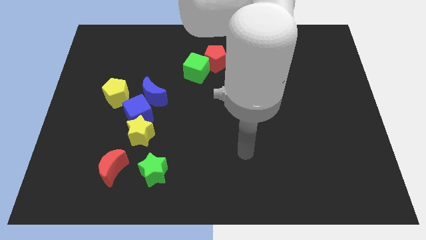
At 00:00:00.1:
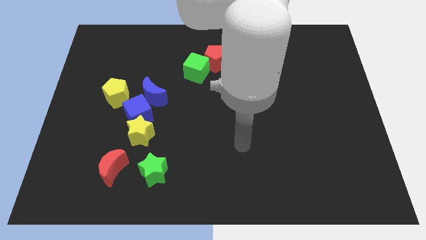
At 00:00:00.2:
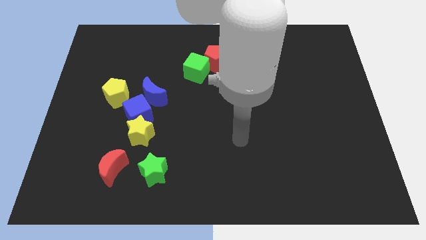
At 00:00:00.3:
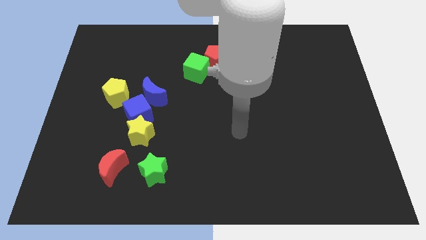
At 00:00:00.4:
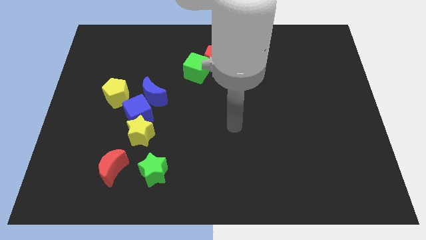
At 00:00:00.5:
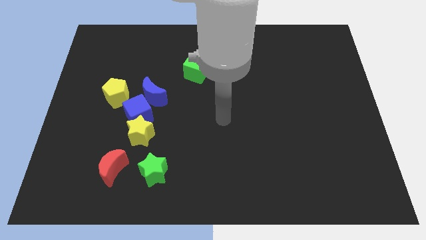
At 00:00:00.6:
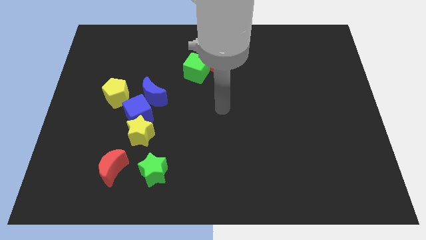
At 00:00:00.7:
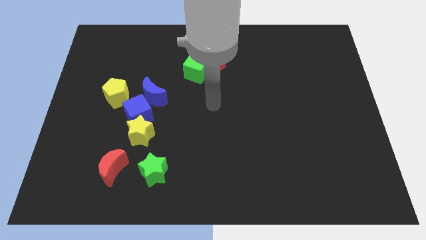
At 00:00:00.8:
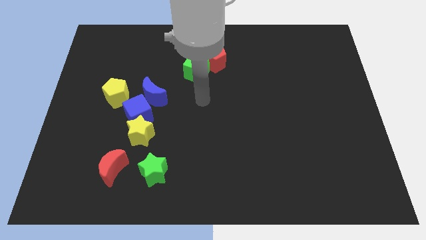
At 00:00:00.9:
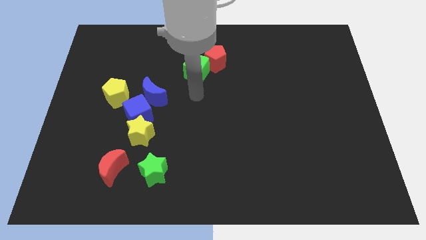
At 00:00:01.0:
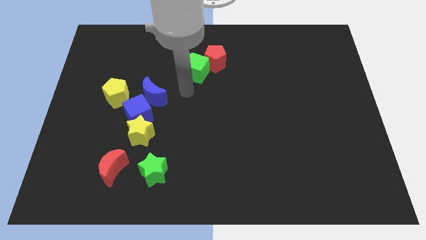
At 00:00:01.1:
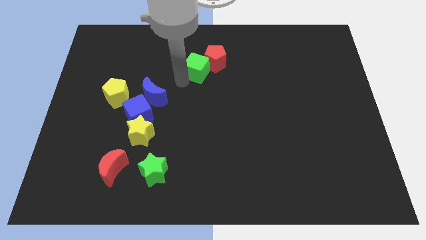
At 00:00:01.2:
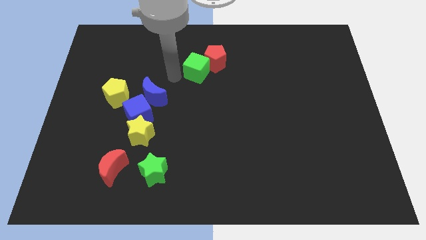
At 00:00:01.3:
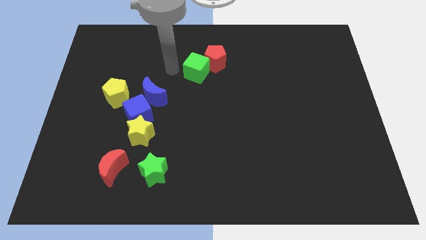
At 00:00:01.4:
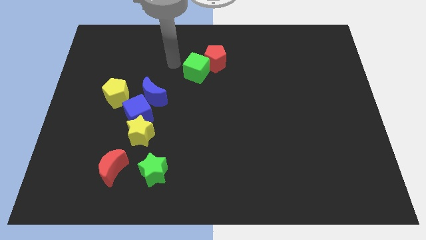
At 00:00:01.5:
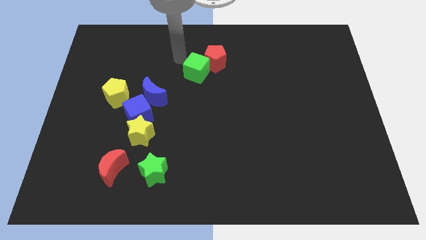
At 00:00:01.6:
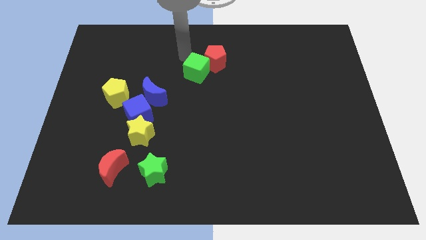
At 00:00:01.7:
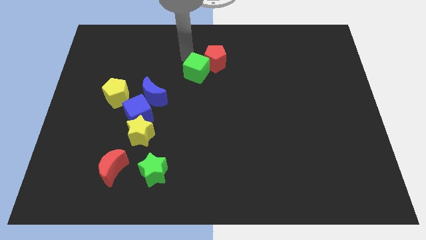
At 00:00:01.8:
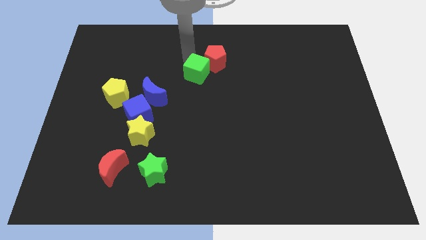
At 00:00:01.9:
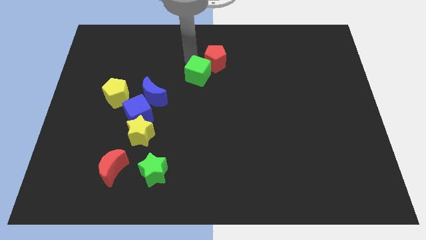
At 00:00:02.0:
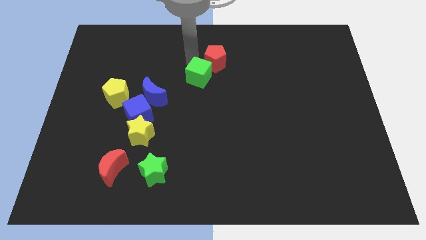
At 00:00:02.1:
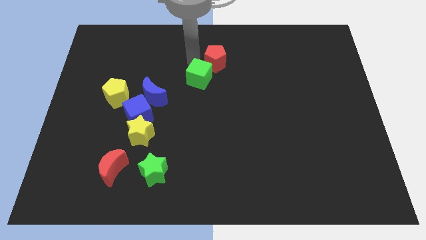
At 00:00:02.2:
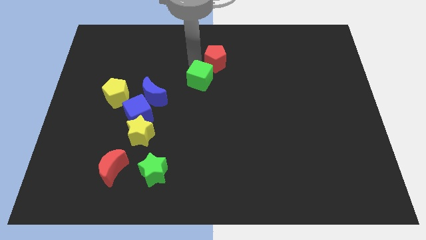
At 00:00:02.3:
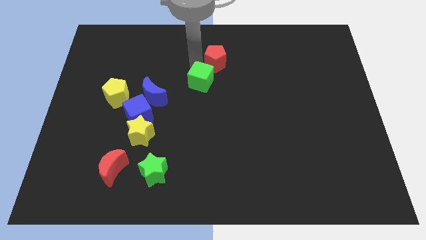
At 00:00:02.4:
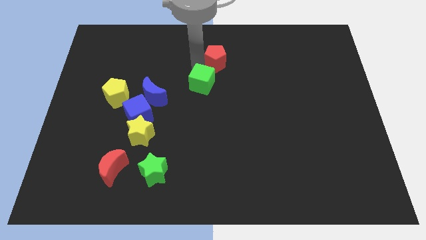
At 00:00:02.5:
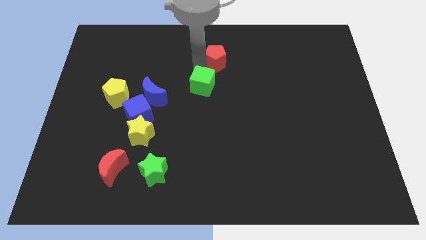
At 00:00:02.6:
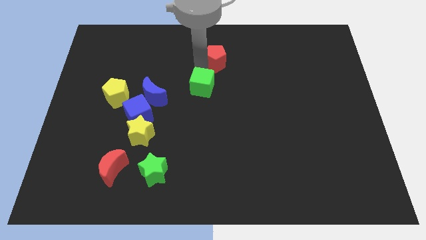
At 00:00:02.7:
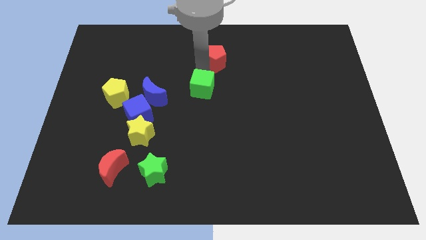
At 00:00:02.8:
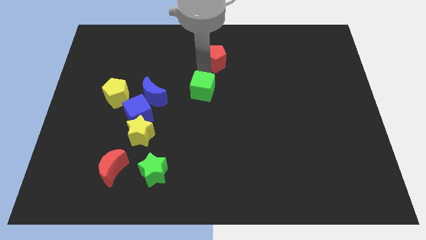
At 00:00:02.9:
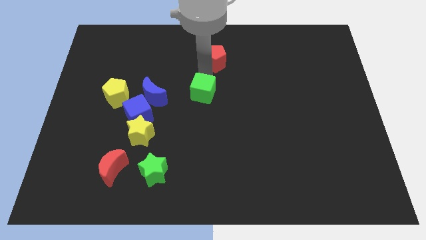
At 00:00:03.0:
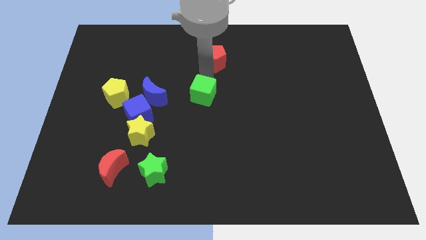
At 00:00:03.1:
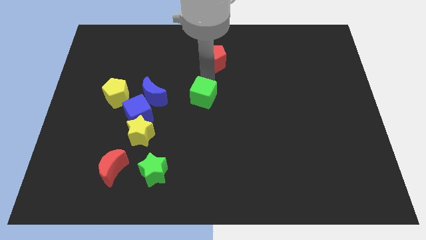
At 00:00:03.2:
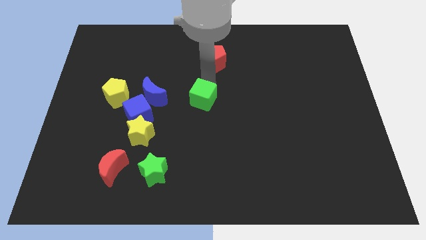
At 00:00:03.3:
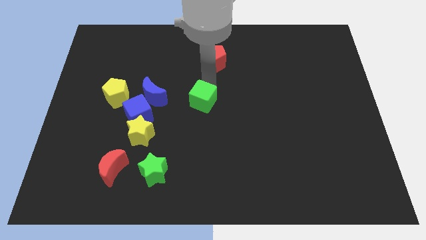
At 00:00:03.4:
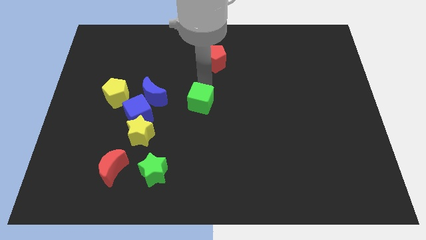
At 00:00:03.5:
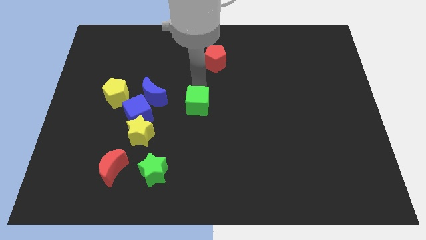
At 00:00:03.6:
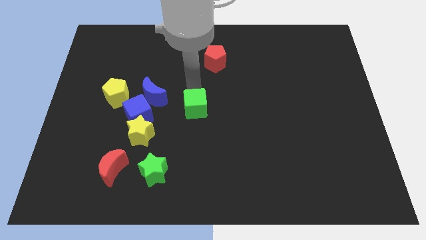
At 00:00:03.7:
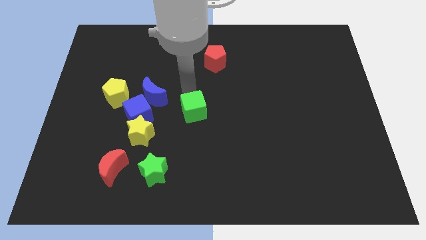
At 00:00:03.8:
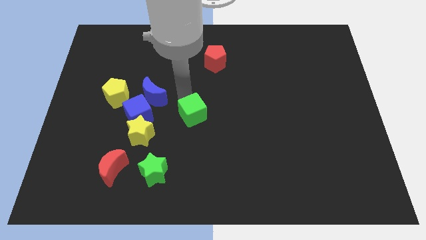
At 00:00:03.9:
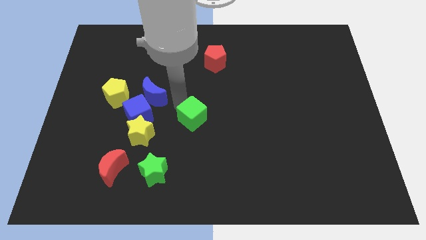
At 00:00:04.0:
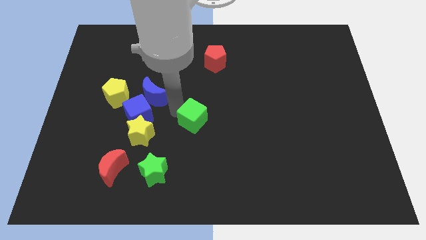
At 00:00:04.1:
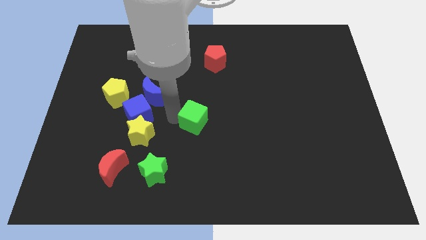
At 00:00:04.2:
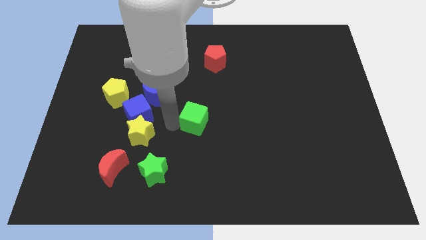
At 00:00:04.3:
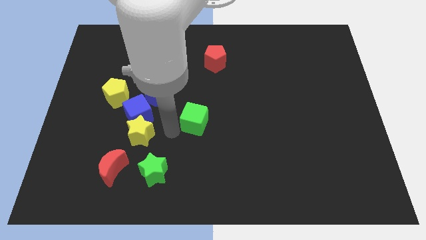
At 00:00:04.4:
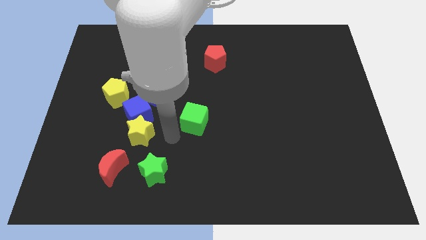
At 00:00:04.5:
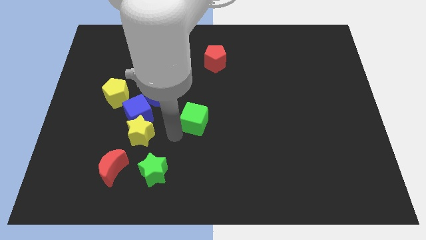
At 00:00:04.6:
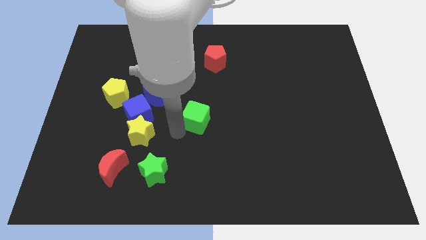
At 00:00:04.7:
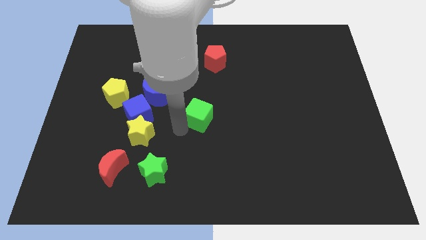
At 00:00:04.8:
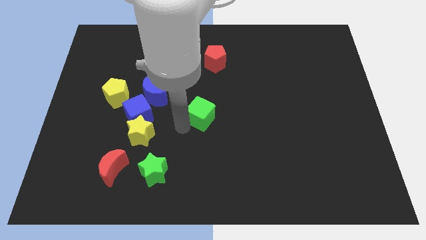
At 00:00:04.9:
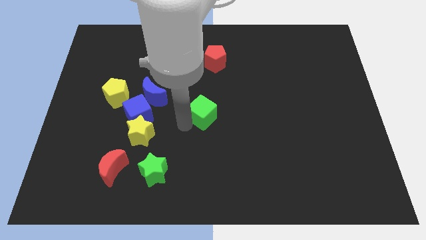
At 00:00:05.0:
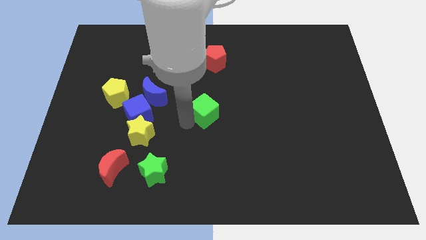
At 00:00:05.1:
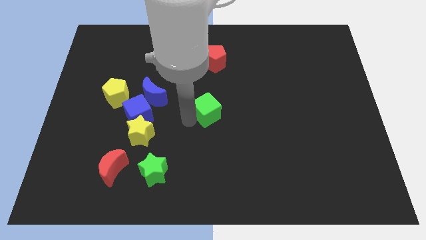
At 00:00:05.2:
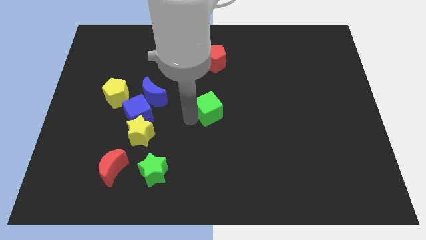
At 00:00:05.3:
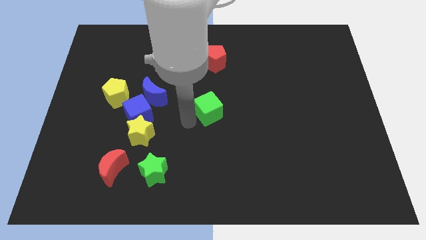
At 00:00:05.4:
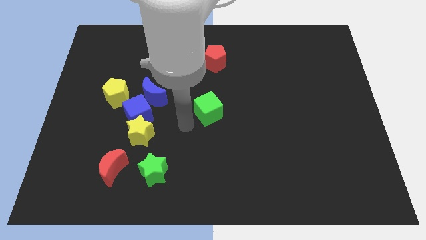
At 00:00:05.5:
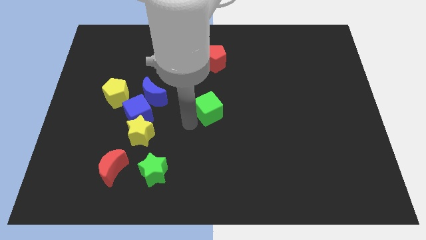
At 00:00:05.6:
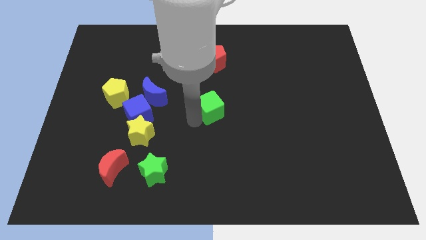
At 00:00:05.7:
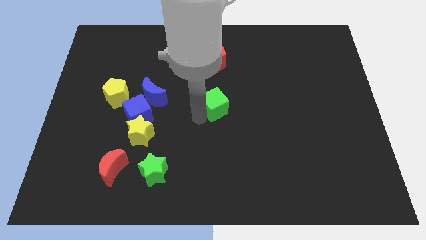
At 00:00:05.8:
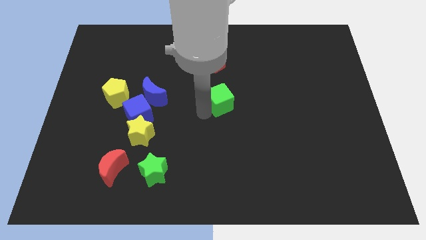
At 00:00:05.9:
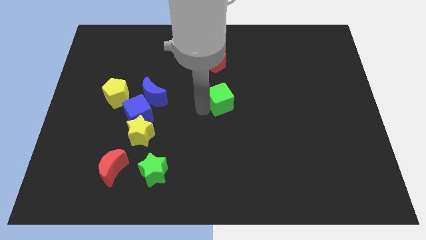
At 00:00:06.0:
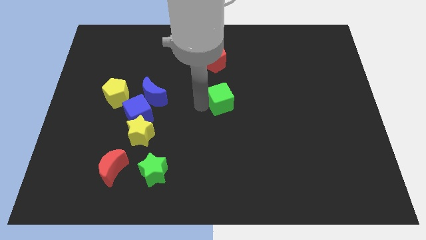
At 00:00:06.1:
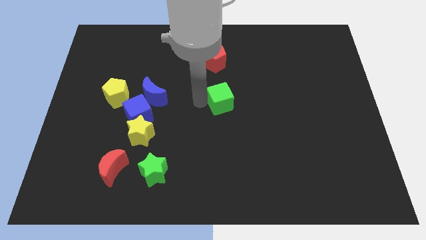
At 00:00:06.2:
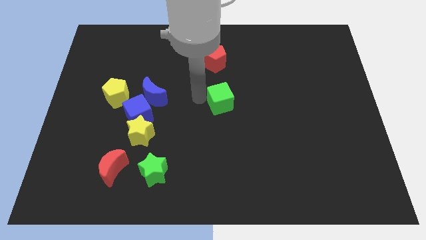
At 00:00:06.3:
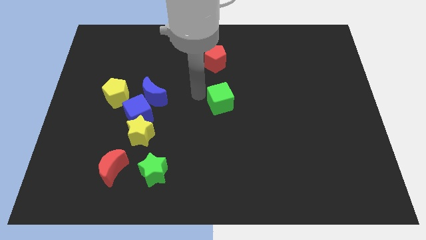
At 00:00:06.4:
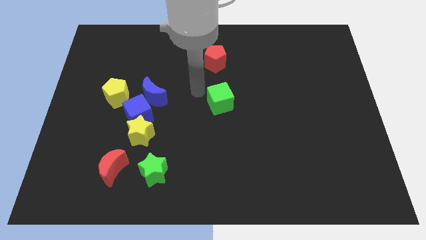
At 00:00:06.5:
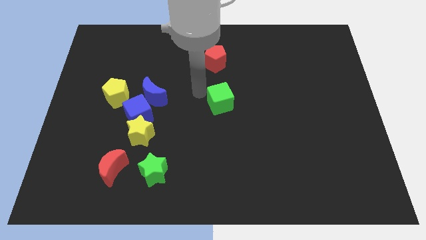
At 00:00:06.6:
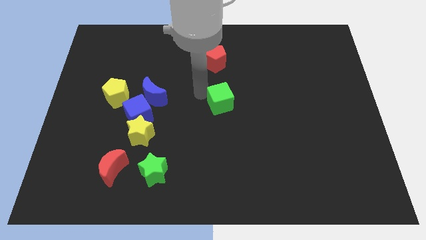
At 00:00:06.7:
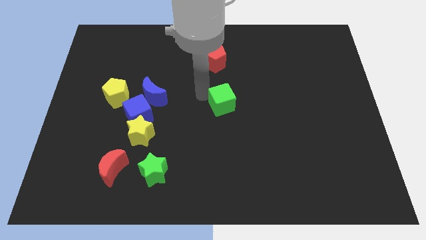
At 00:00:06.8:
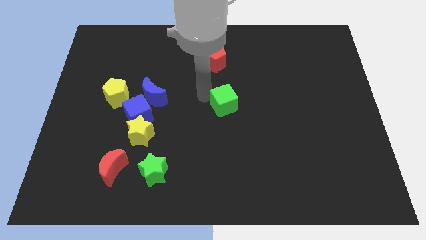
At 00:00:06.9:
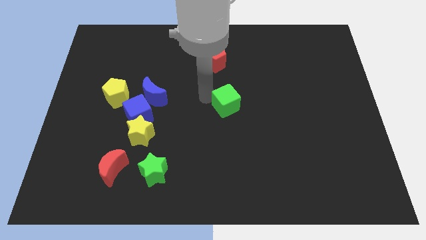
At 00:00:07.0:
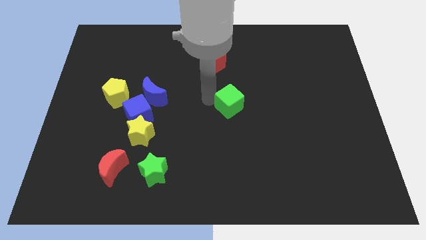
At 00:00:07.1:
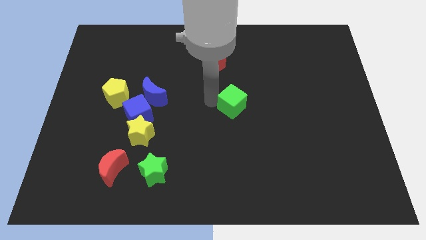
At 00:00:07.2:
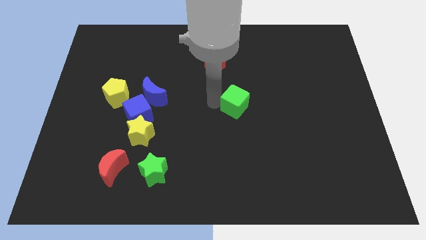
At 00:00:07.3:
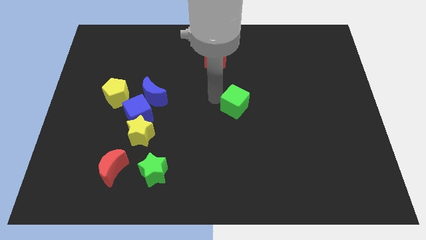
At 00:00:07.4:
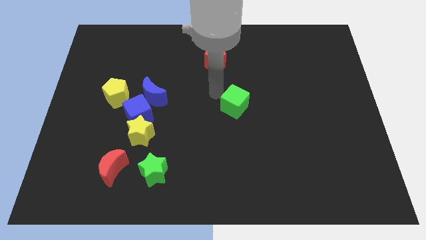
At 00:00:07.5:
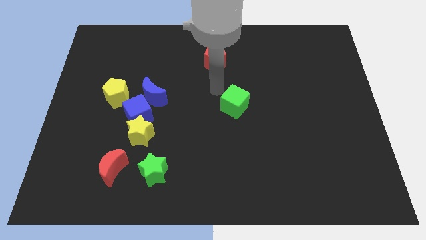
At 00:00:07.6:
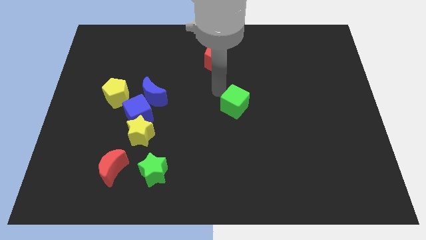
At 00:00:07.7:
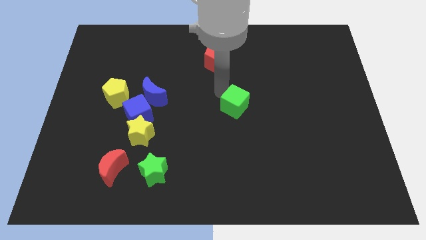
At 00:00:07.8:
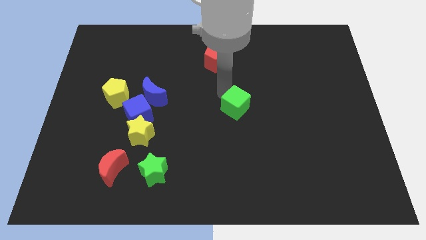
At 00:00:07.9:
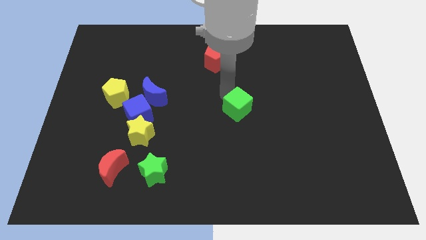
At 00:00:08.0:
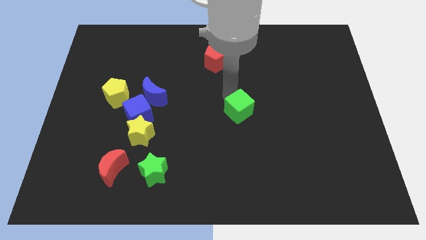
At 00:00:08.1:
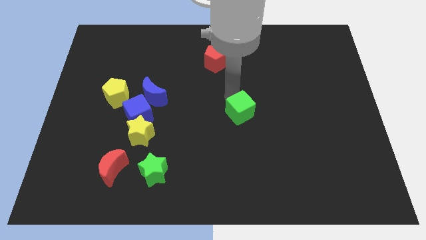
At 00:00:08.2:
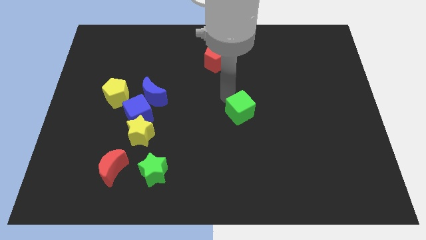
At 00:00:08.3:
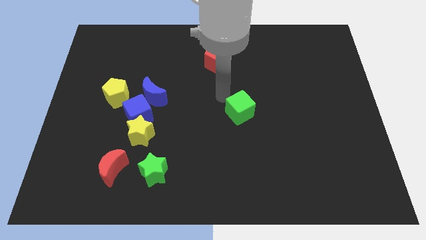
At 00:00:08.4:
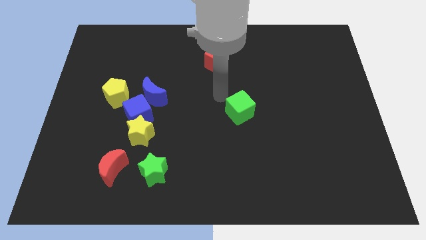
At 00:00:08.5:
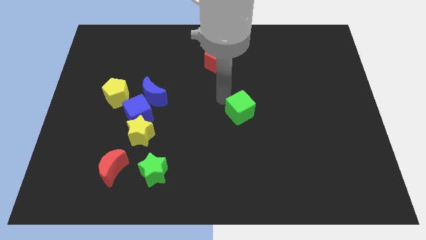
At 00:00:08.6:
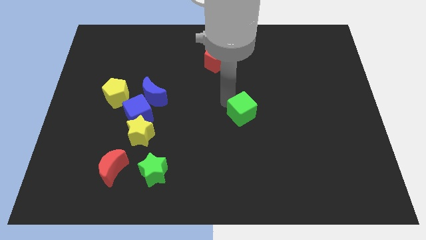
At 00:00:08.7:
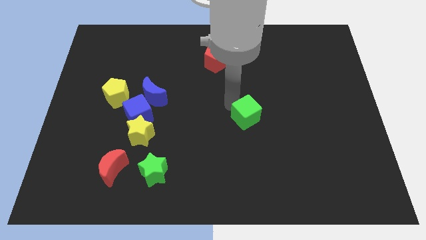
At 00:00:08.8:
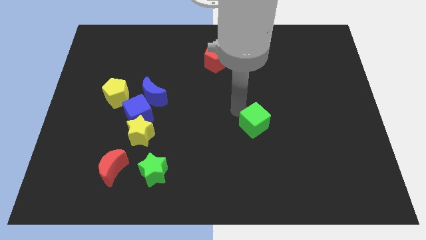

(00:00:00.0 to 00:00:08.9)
push the green cube down and then to the right
